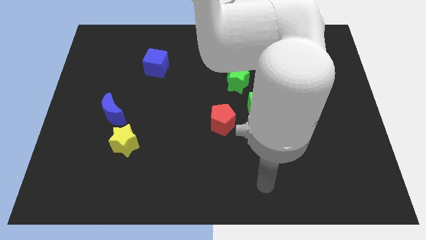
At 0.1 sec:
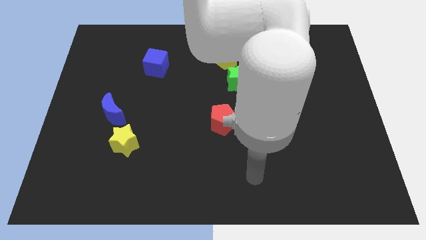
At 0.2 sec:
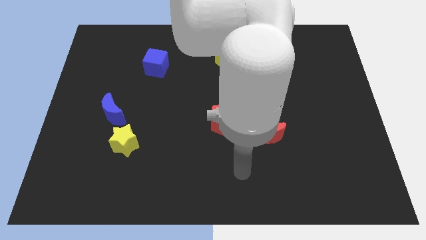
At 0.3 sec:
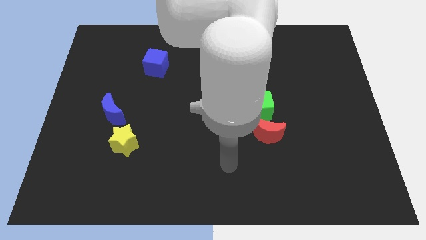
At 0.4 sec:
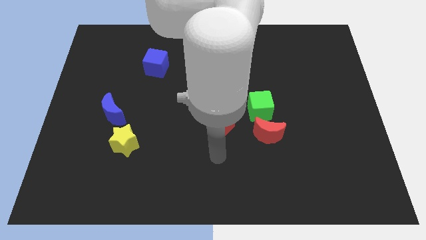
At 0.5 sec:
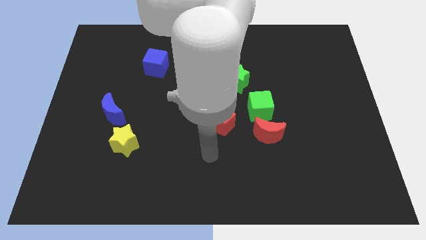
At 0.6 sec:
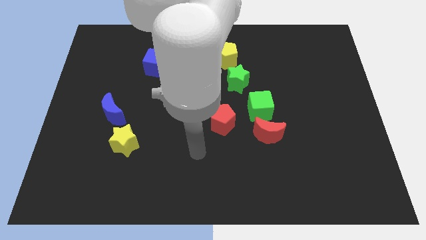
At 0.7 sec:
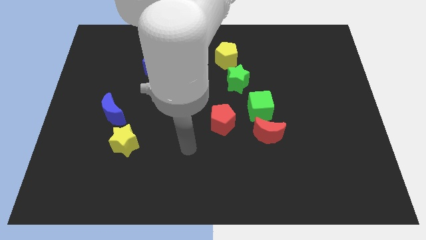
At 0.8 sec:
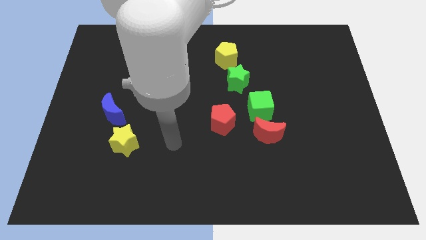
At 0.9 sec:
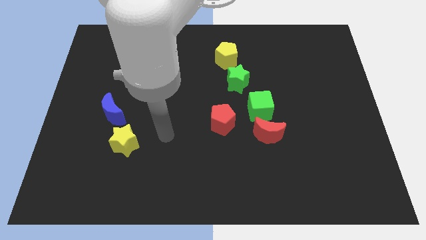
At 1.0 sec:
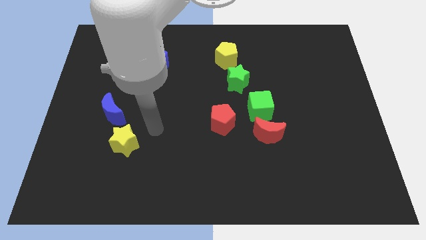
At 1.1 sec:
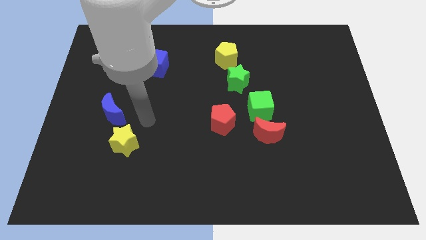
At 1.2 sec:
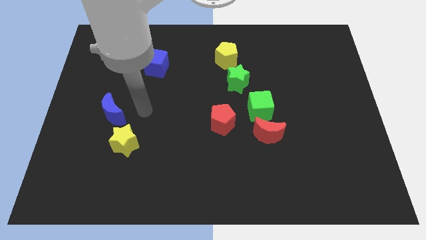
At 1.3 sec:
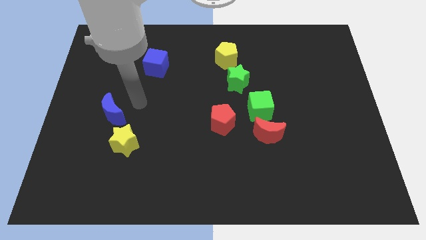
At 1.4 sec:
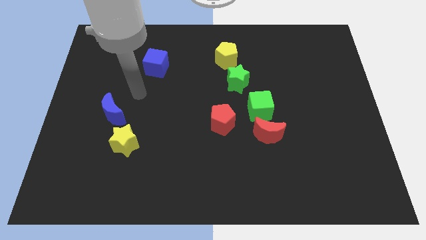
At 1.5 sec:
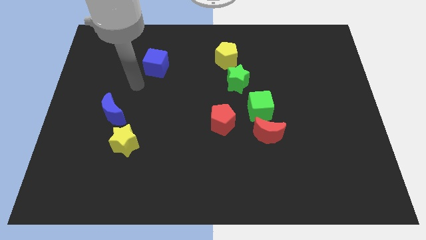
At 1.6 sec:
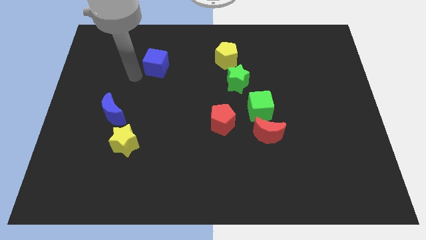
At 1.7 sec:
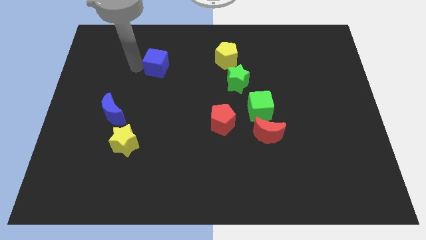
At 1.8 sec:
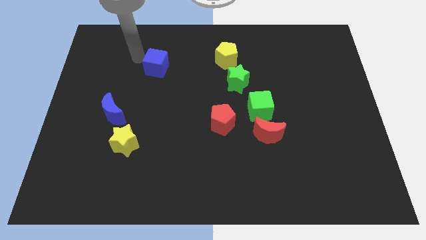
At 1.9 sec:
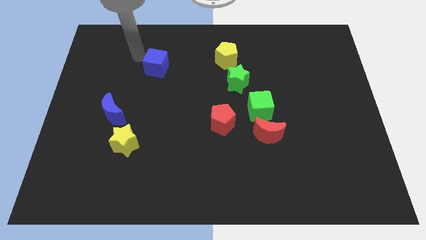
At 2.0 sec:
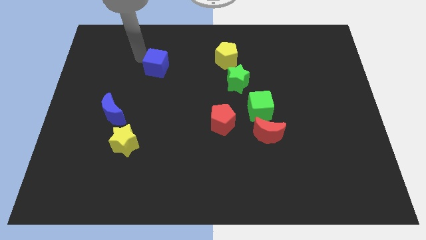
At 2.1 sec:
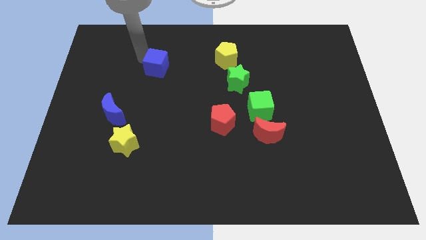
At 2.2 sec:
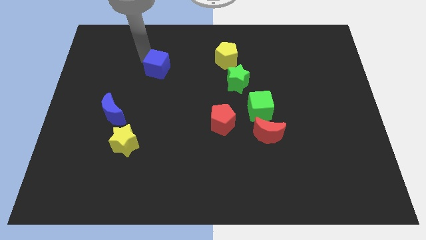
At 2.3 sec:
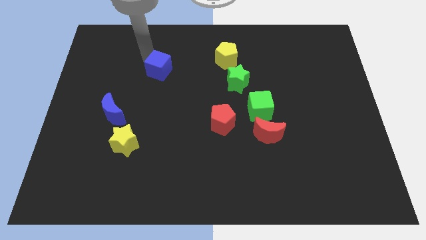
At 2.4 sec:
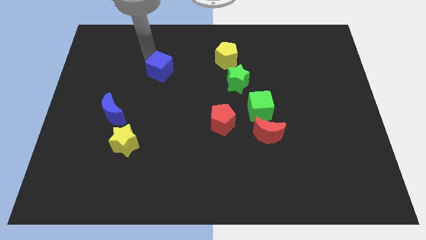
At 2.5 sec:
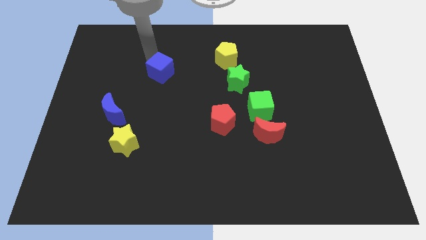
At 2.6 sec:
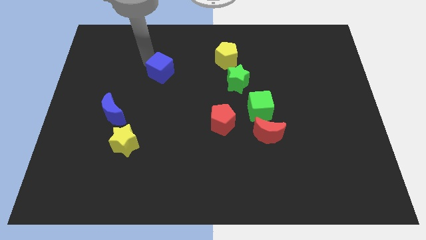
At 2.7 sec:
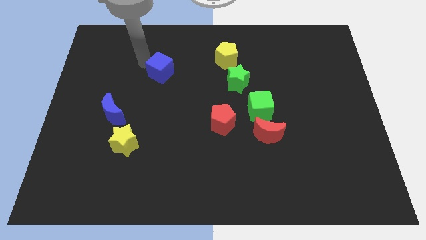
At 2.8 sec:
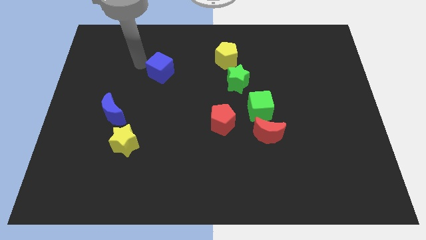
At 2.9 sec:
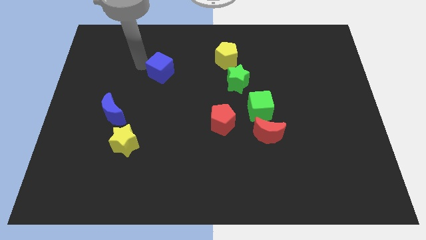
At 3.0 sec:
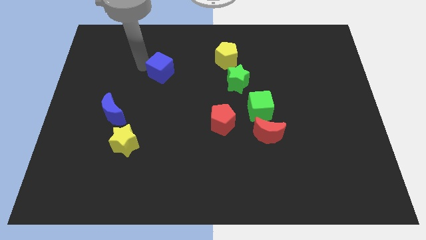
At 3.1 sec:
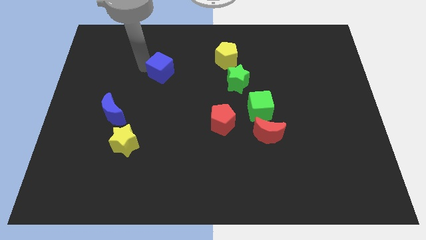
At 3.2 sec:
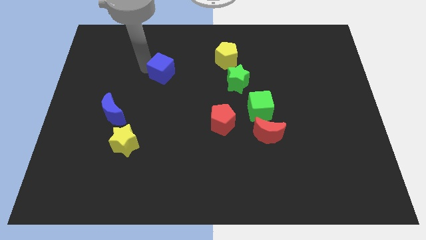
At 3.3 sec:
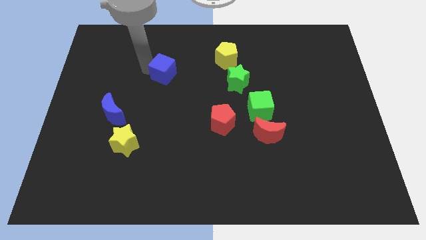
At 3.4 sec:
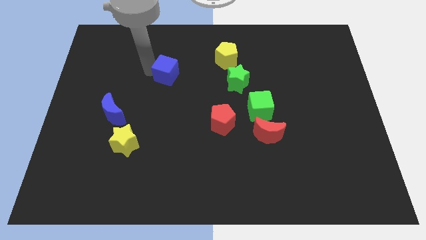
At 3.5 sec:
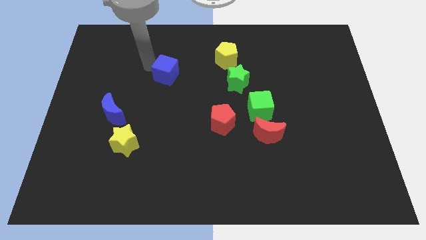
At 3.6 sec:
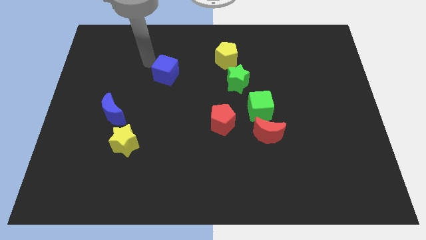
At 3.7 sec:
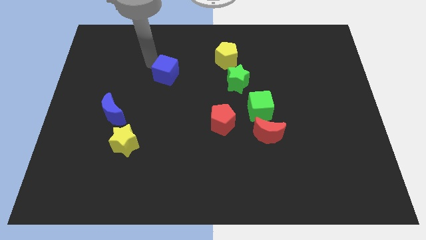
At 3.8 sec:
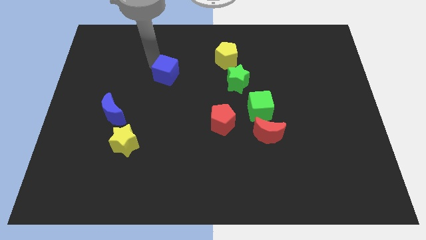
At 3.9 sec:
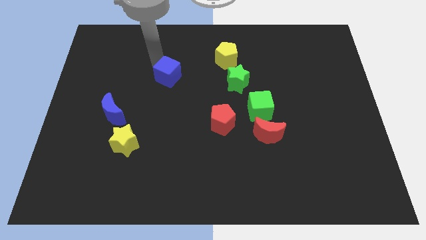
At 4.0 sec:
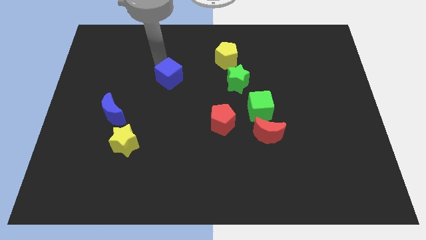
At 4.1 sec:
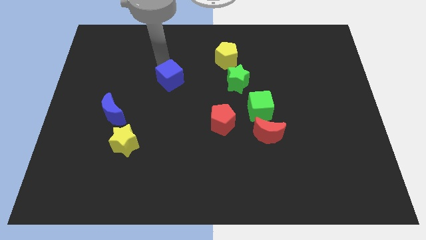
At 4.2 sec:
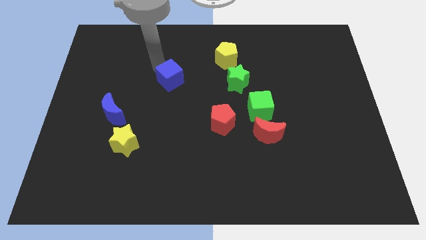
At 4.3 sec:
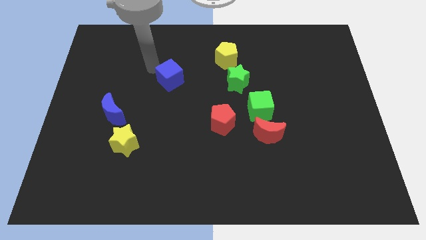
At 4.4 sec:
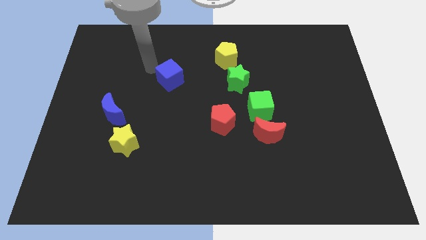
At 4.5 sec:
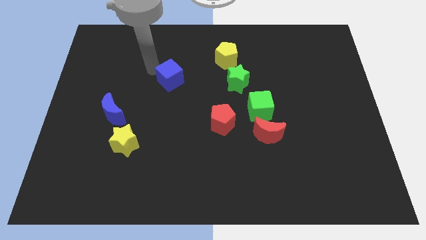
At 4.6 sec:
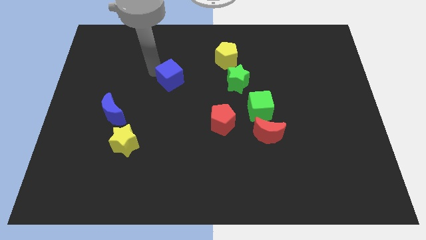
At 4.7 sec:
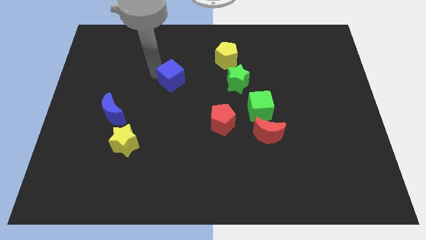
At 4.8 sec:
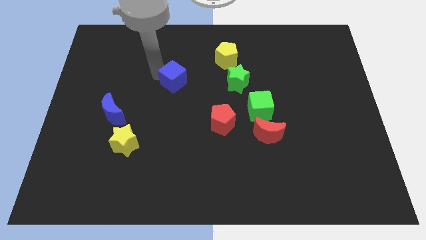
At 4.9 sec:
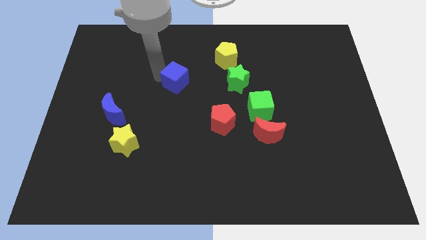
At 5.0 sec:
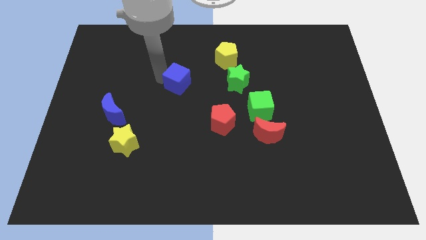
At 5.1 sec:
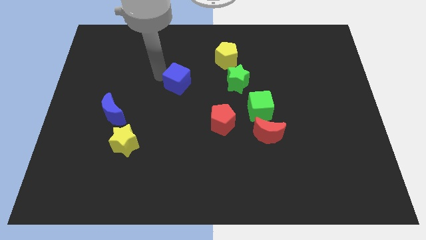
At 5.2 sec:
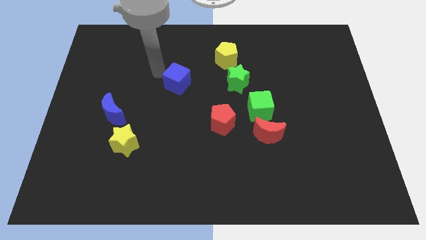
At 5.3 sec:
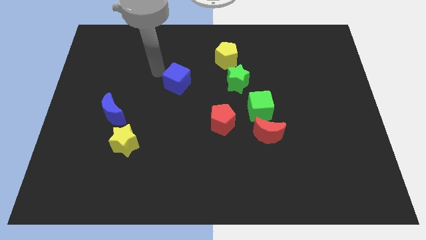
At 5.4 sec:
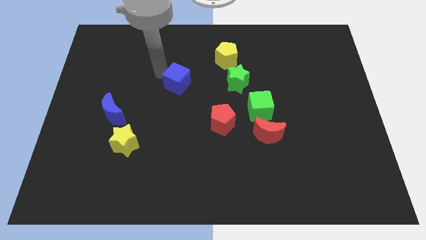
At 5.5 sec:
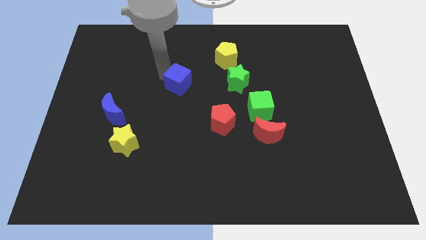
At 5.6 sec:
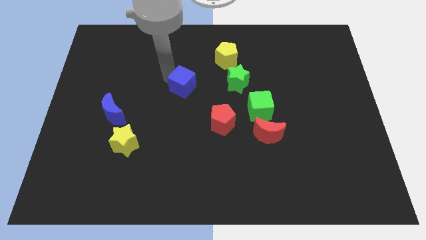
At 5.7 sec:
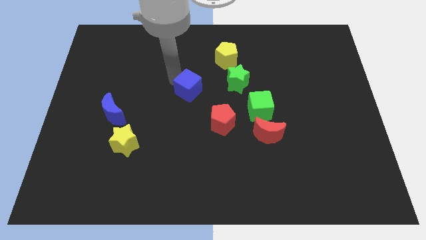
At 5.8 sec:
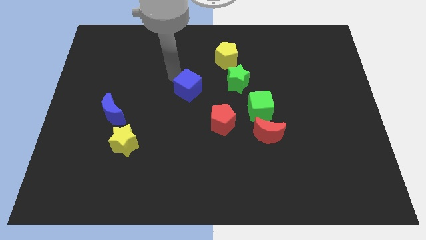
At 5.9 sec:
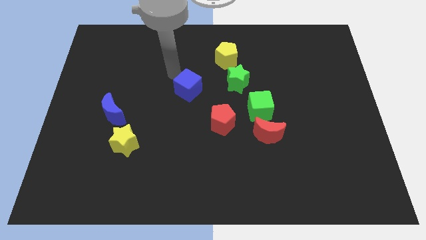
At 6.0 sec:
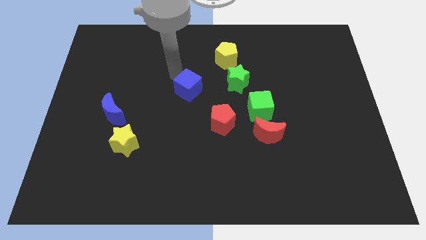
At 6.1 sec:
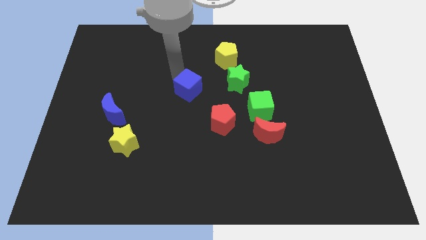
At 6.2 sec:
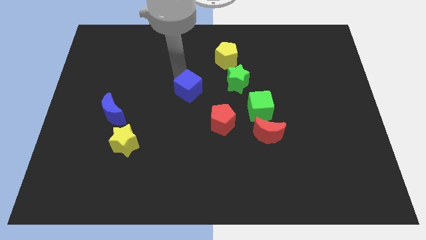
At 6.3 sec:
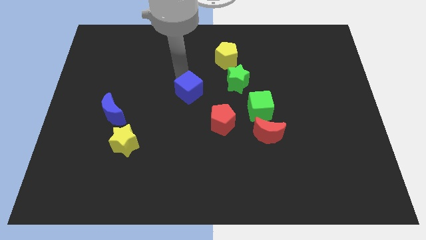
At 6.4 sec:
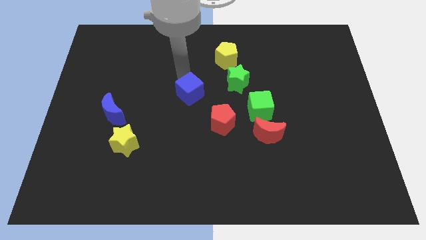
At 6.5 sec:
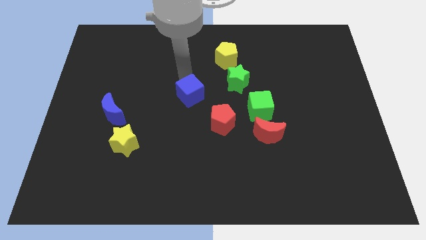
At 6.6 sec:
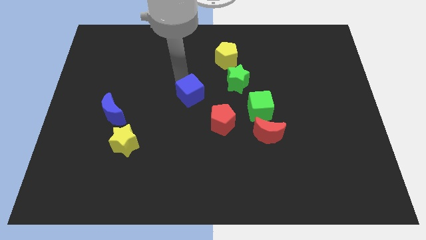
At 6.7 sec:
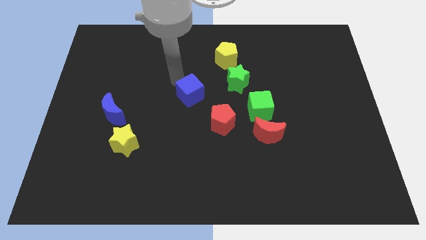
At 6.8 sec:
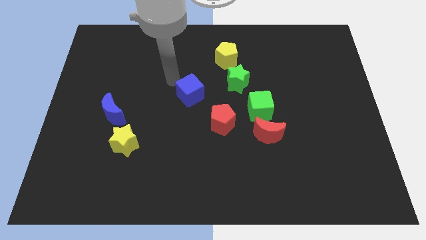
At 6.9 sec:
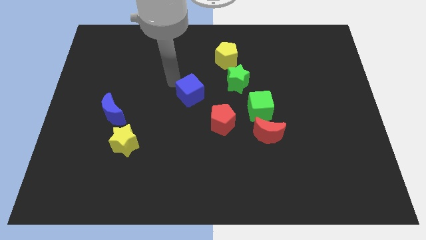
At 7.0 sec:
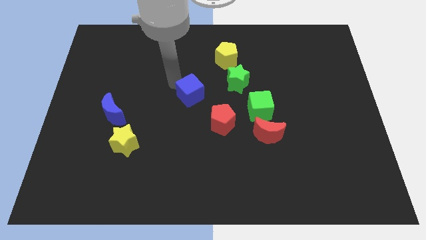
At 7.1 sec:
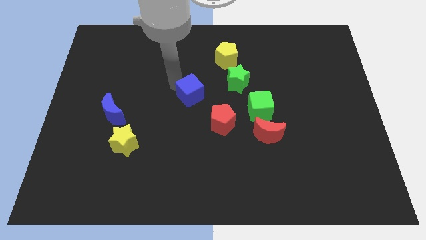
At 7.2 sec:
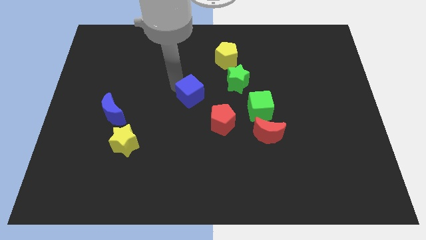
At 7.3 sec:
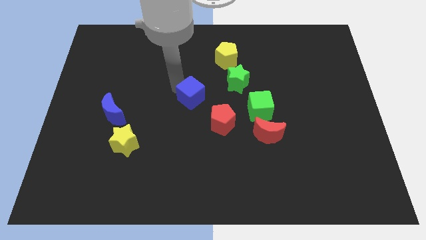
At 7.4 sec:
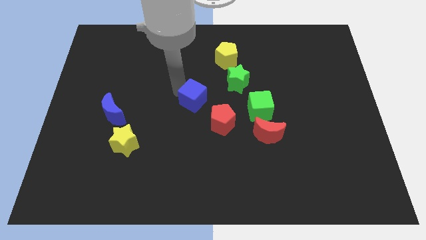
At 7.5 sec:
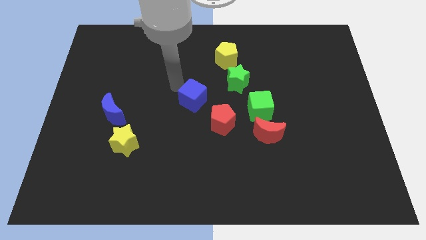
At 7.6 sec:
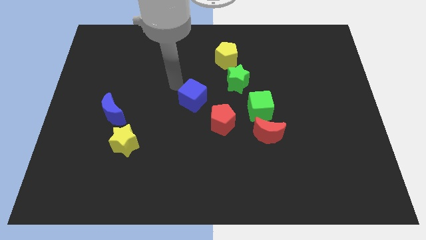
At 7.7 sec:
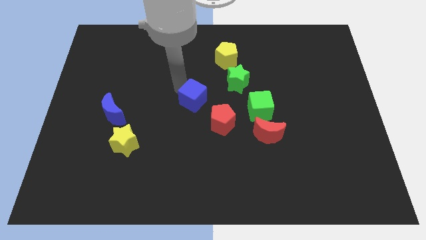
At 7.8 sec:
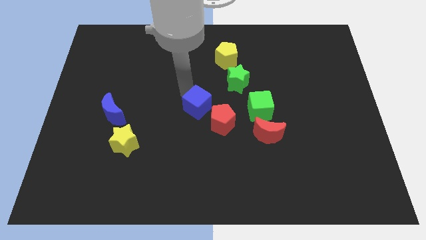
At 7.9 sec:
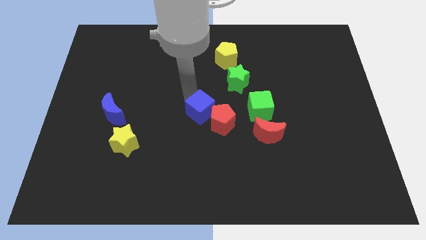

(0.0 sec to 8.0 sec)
push the blue cube to the red pentagon

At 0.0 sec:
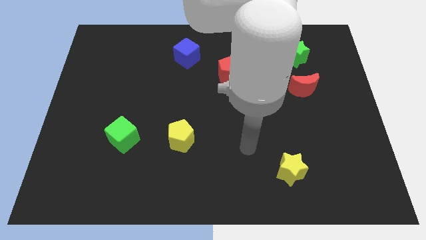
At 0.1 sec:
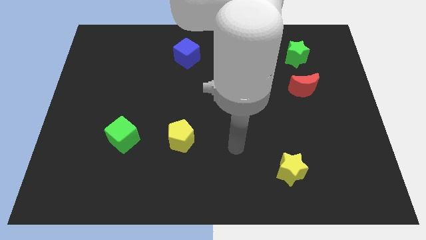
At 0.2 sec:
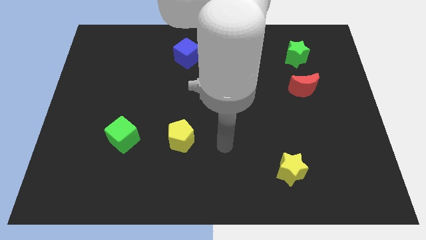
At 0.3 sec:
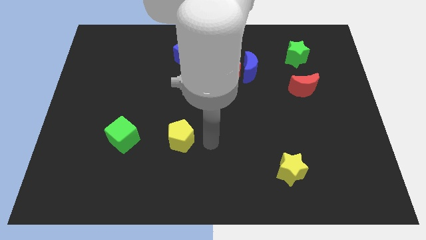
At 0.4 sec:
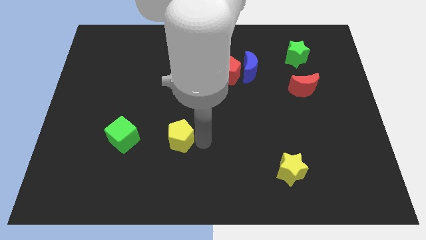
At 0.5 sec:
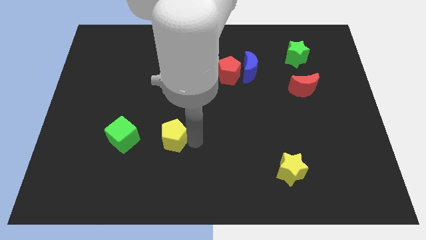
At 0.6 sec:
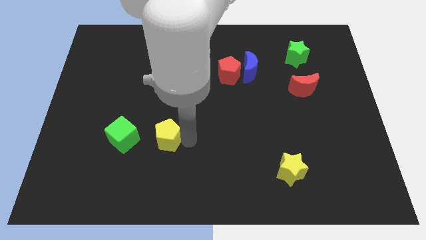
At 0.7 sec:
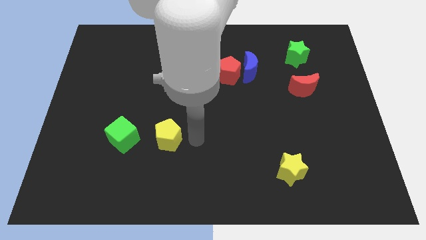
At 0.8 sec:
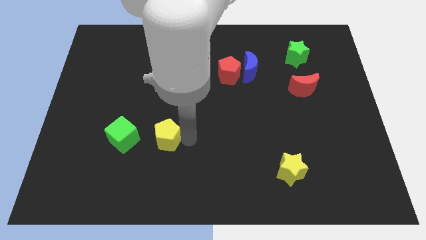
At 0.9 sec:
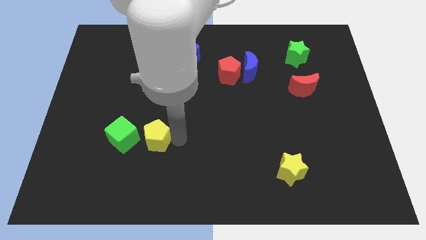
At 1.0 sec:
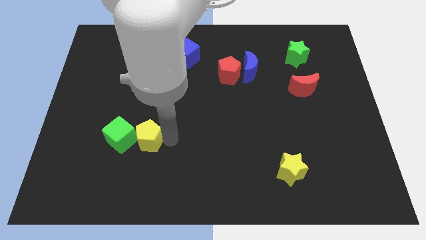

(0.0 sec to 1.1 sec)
push the yellow pentagon to the green cube
